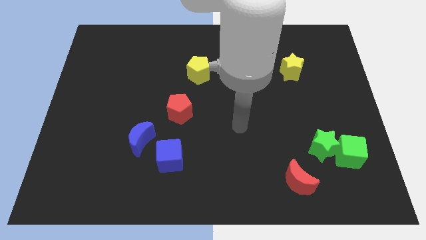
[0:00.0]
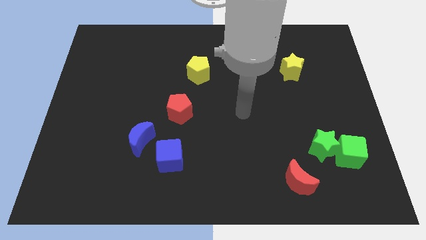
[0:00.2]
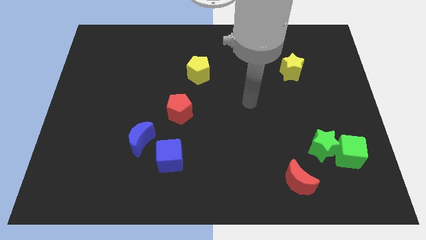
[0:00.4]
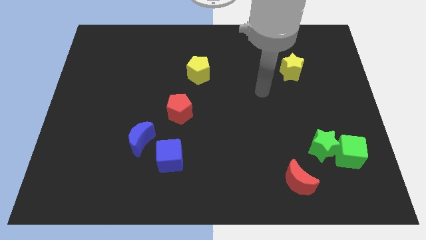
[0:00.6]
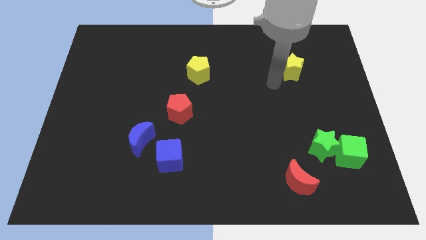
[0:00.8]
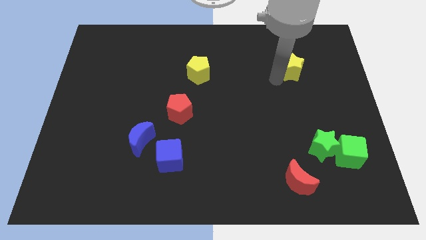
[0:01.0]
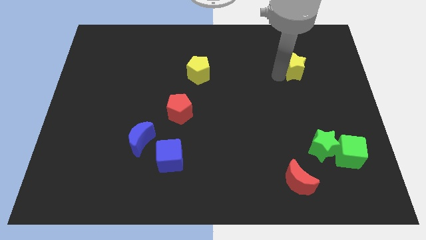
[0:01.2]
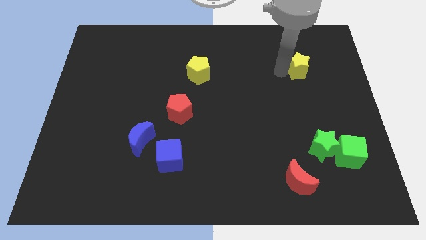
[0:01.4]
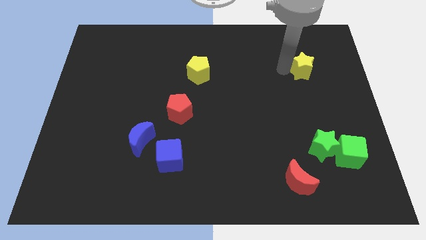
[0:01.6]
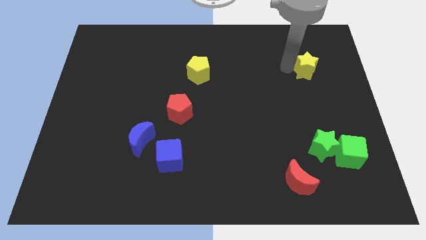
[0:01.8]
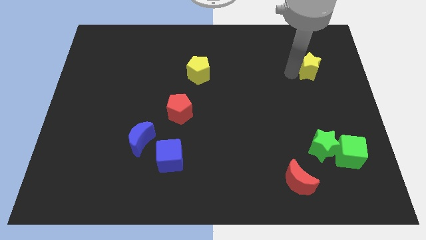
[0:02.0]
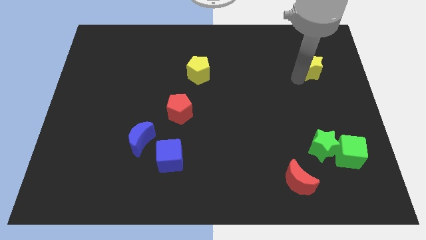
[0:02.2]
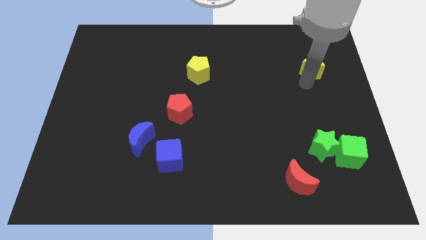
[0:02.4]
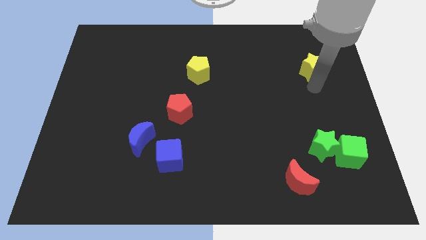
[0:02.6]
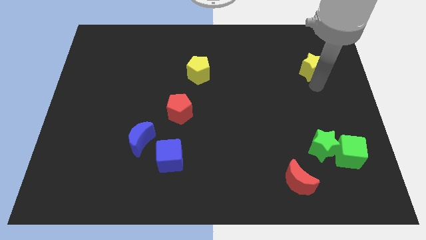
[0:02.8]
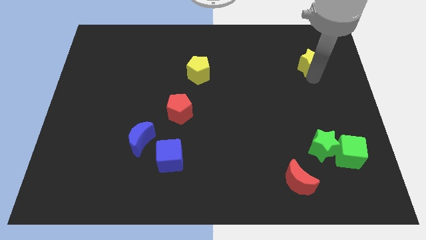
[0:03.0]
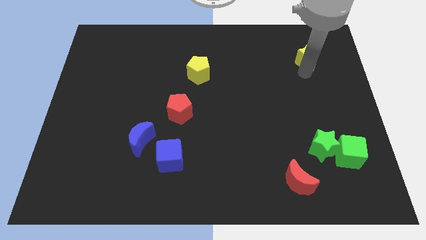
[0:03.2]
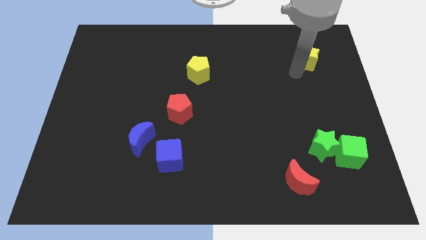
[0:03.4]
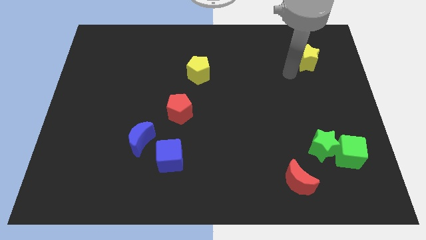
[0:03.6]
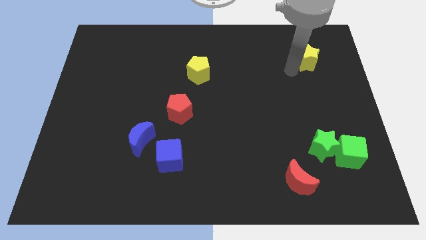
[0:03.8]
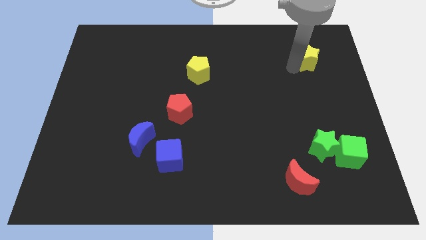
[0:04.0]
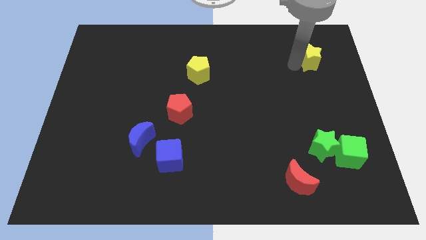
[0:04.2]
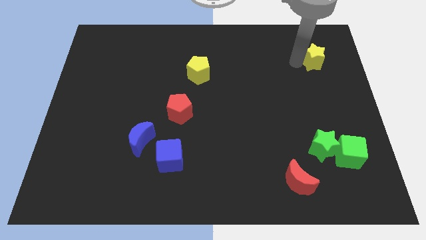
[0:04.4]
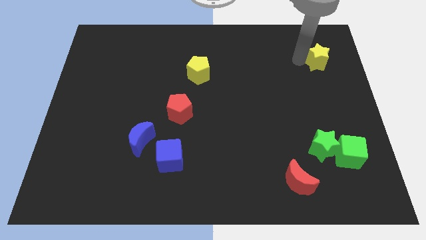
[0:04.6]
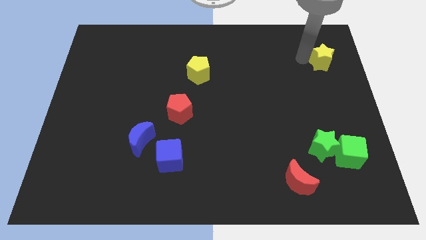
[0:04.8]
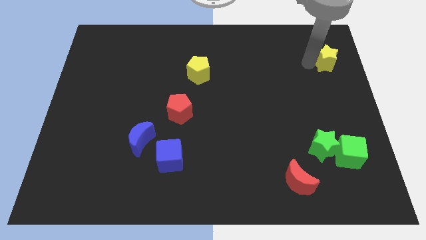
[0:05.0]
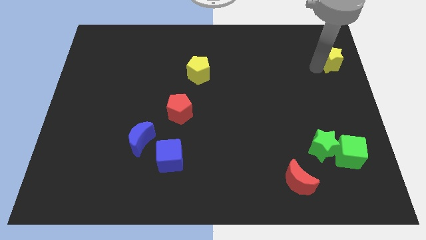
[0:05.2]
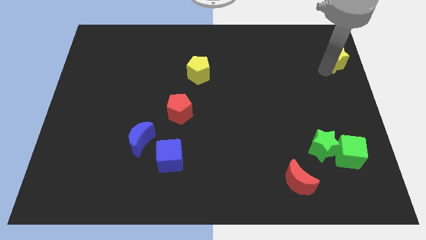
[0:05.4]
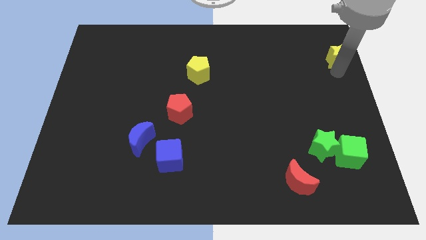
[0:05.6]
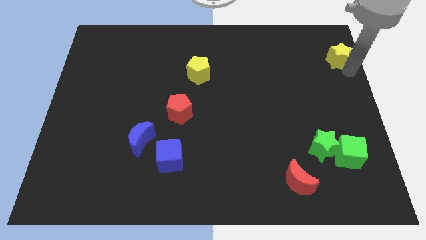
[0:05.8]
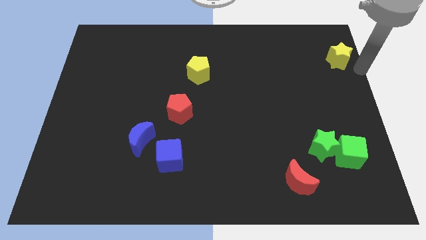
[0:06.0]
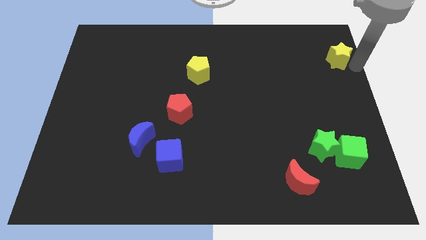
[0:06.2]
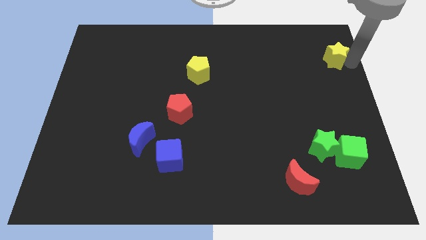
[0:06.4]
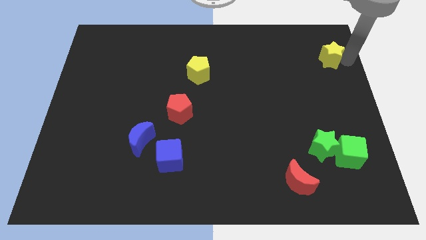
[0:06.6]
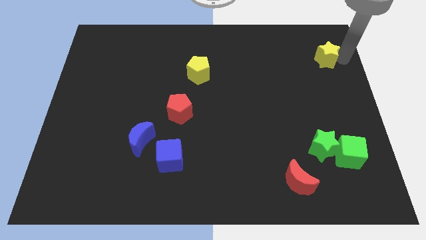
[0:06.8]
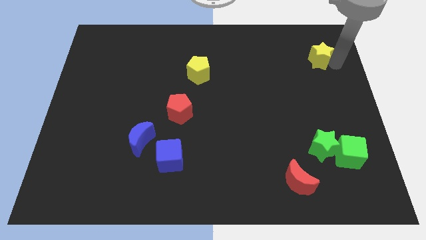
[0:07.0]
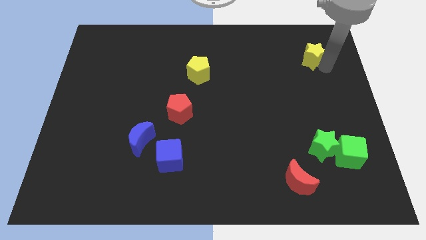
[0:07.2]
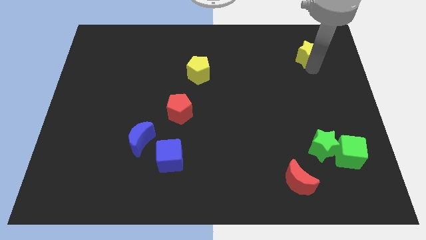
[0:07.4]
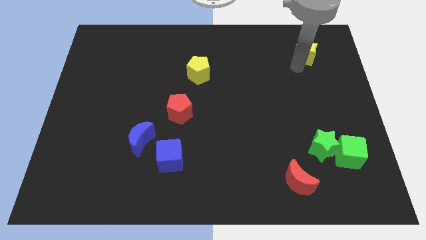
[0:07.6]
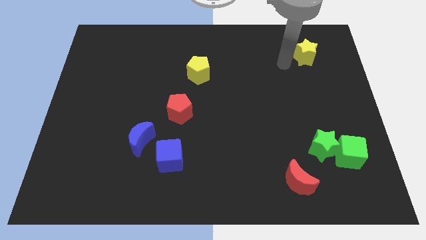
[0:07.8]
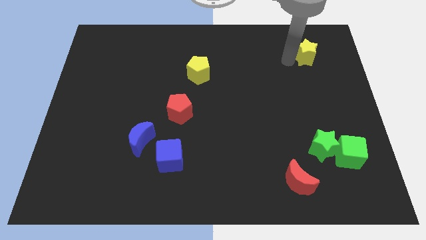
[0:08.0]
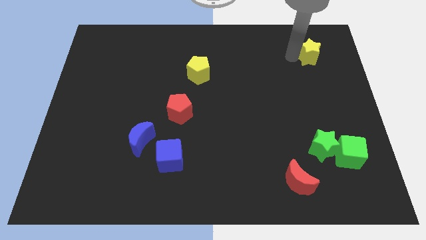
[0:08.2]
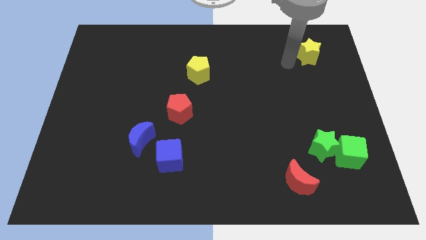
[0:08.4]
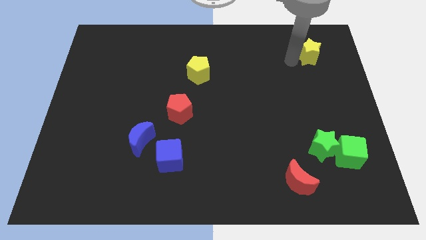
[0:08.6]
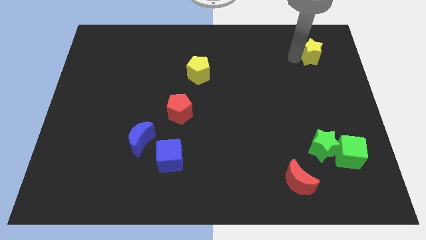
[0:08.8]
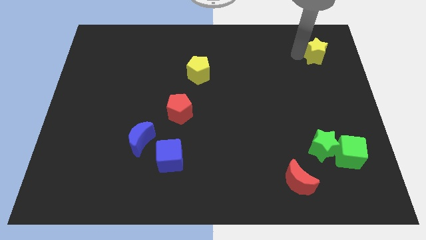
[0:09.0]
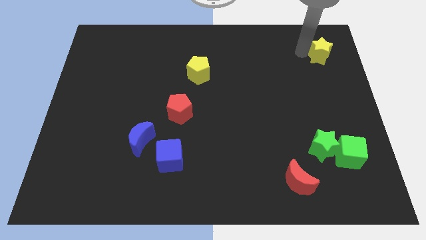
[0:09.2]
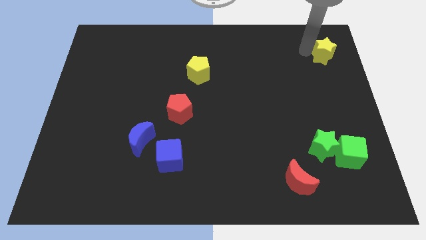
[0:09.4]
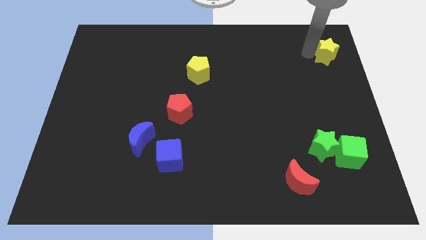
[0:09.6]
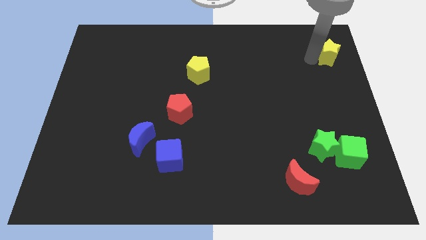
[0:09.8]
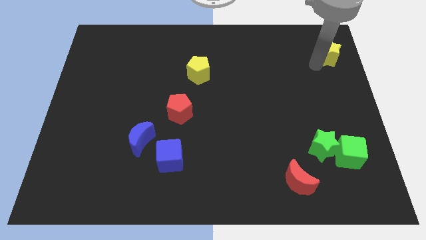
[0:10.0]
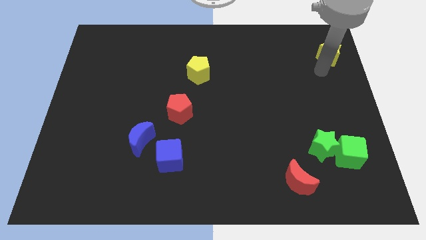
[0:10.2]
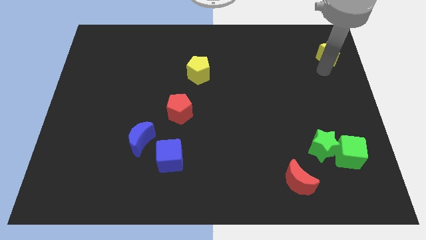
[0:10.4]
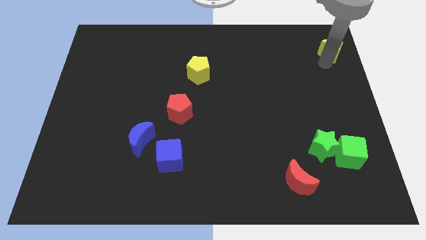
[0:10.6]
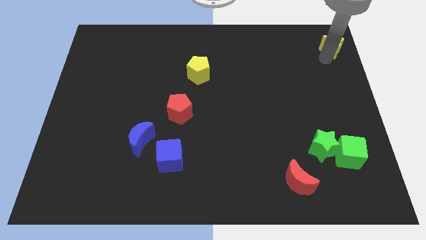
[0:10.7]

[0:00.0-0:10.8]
push the yellow star to the upper right corner
